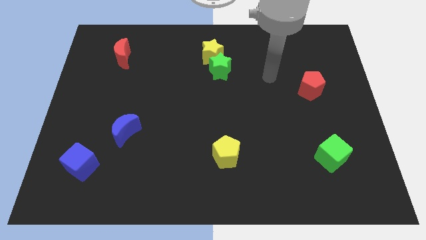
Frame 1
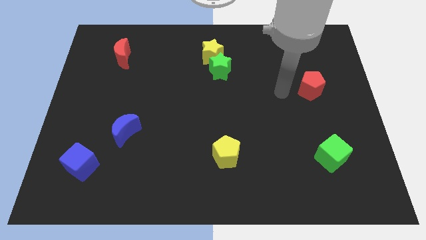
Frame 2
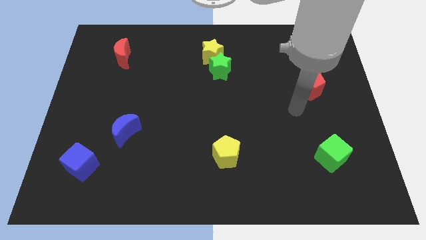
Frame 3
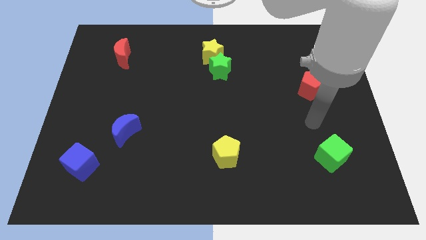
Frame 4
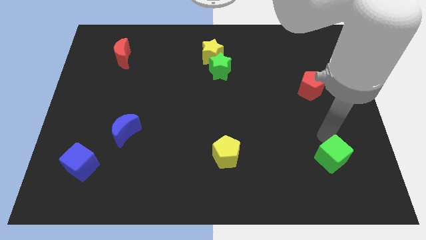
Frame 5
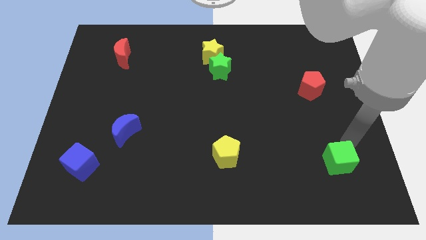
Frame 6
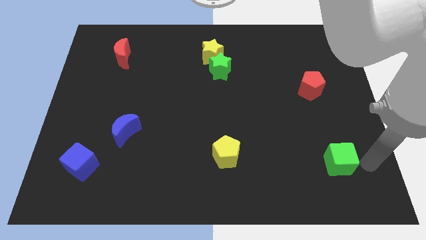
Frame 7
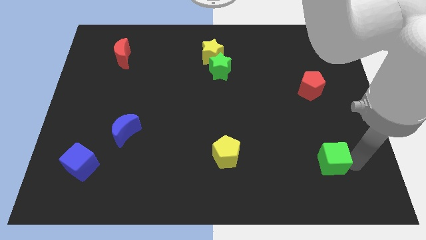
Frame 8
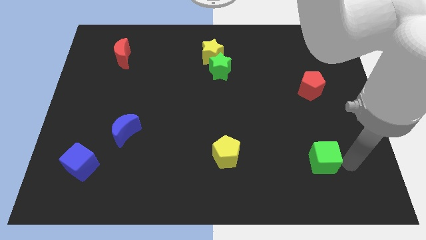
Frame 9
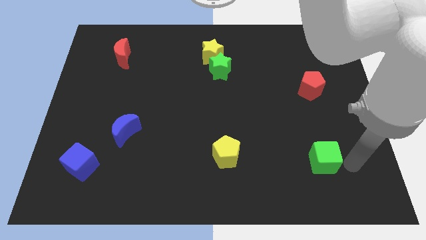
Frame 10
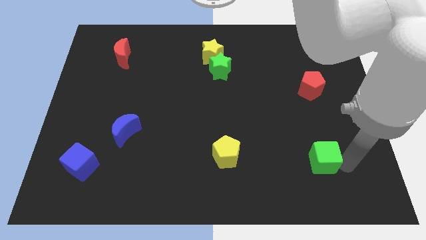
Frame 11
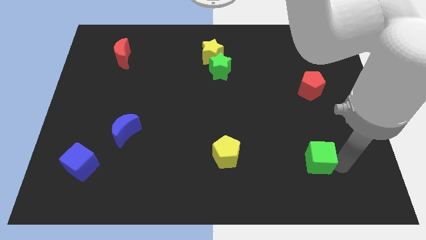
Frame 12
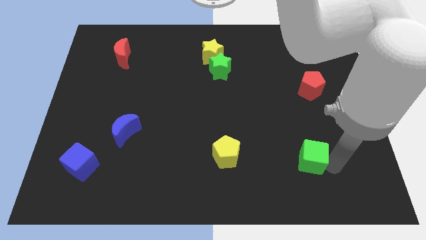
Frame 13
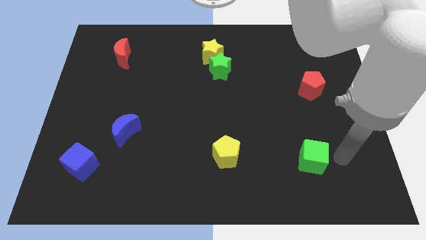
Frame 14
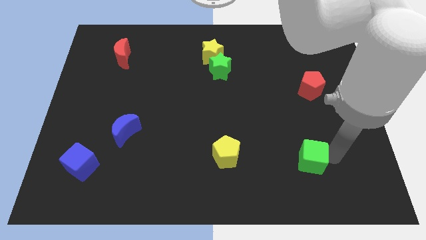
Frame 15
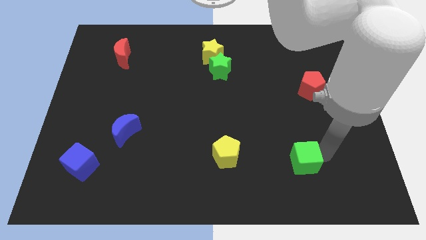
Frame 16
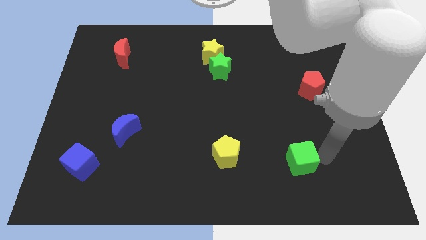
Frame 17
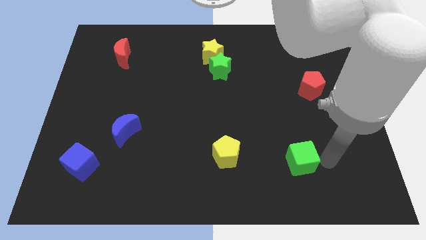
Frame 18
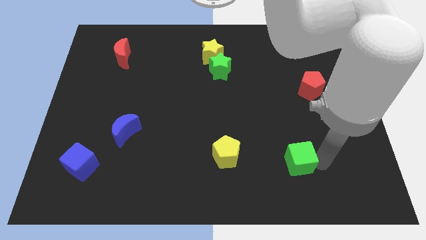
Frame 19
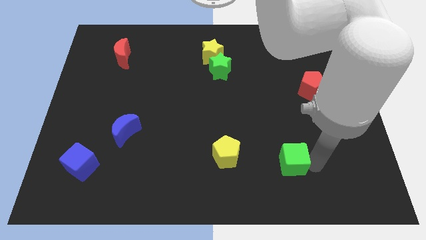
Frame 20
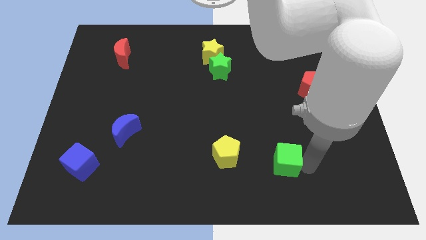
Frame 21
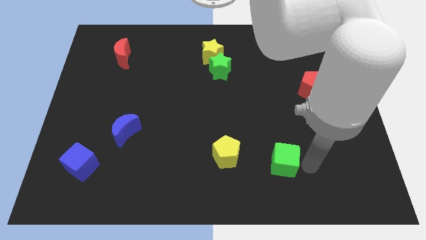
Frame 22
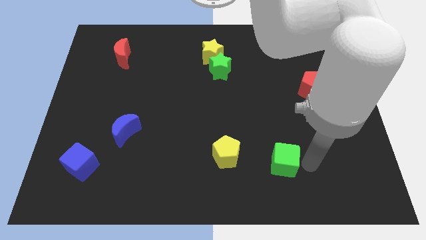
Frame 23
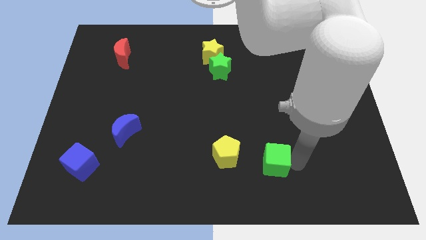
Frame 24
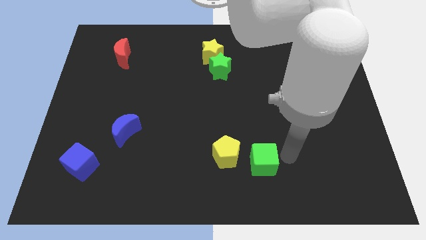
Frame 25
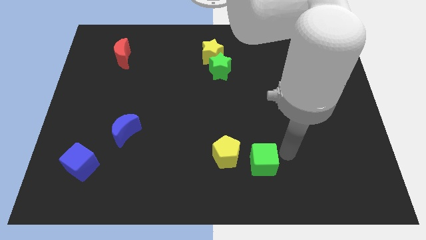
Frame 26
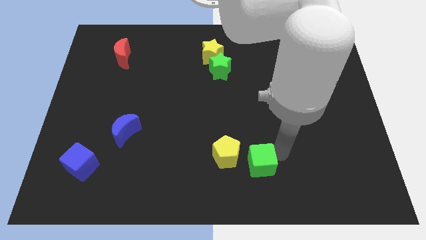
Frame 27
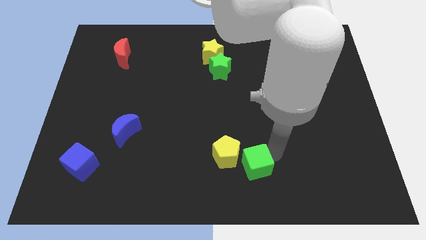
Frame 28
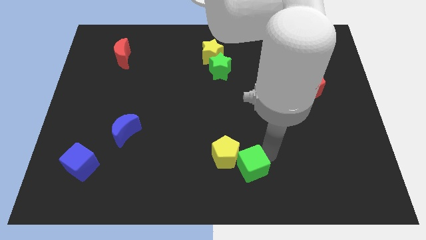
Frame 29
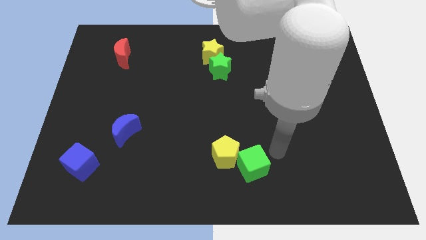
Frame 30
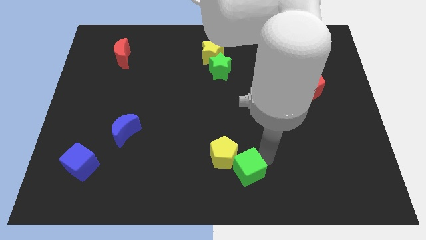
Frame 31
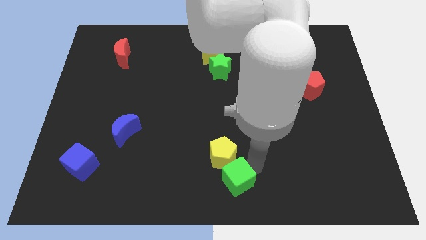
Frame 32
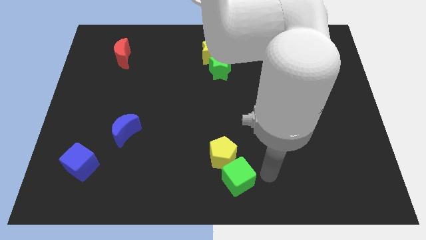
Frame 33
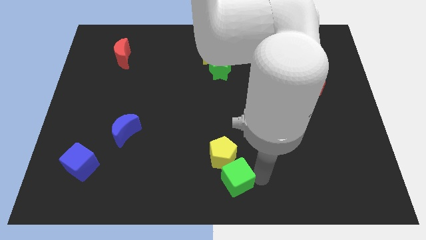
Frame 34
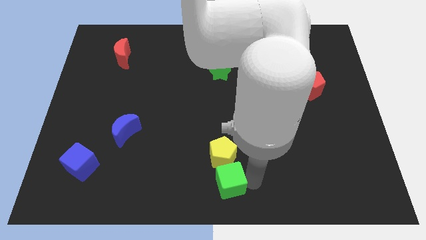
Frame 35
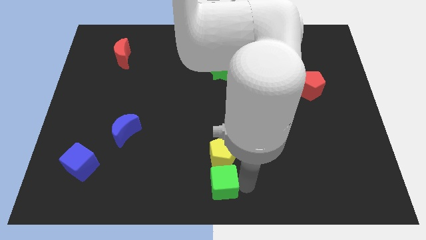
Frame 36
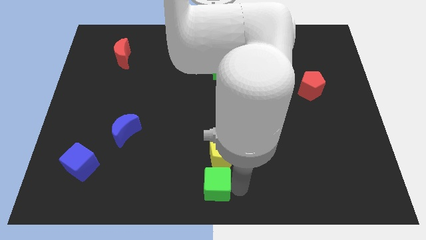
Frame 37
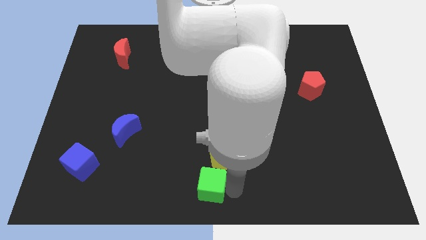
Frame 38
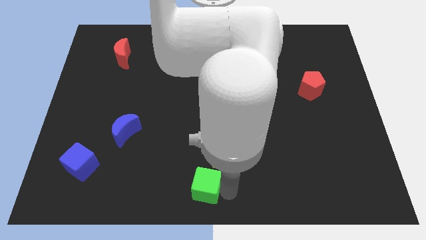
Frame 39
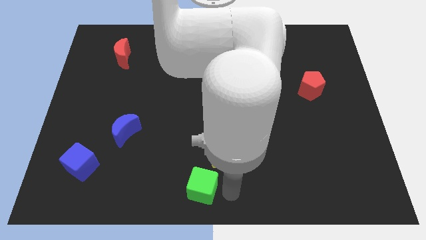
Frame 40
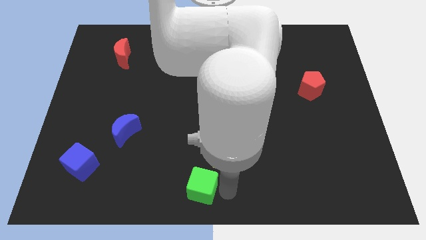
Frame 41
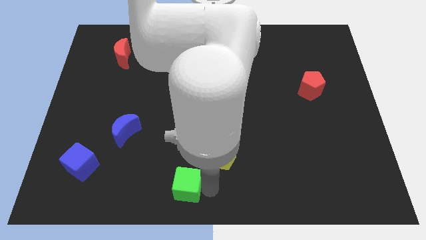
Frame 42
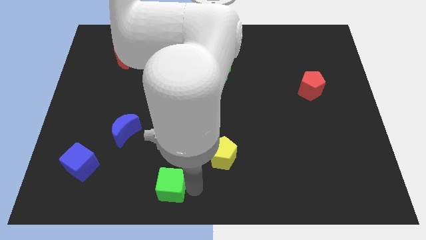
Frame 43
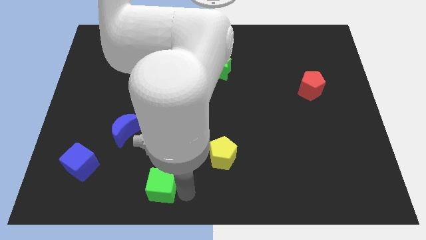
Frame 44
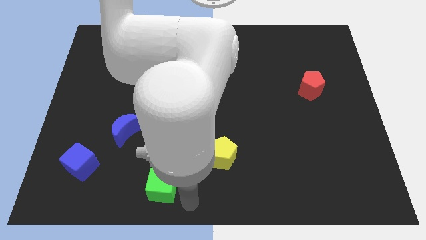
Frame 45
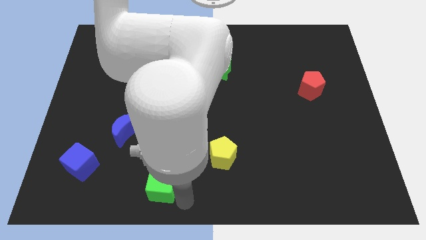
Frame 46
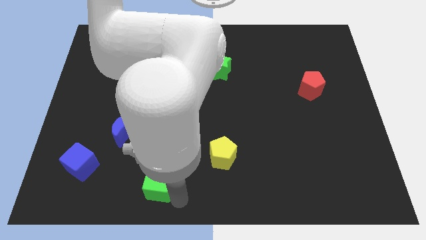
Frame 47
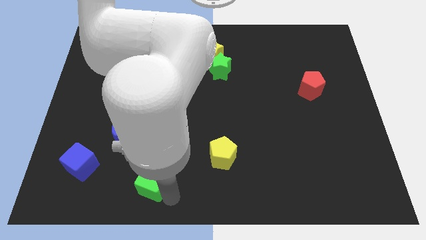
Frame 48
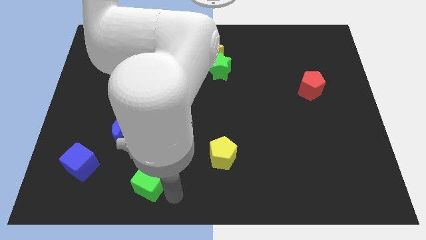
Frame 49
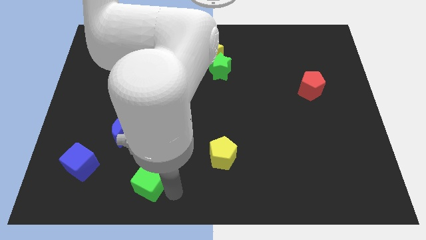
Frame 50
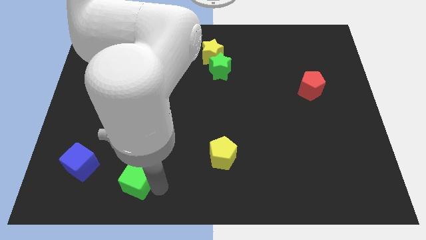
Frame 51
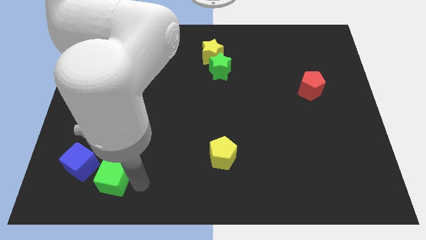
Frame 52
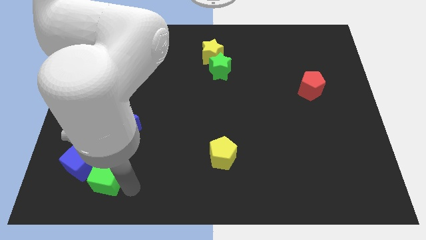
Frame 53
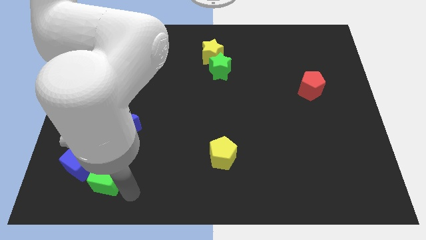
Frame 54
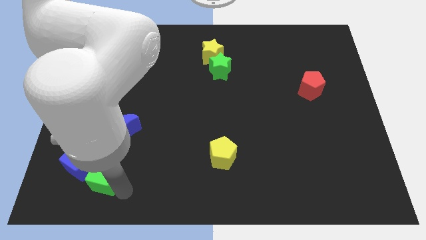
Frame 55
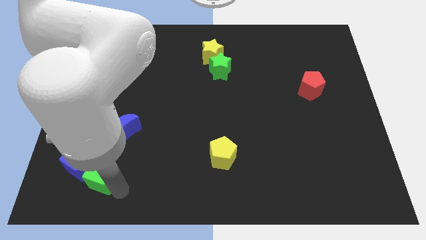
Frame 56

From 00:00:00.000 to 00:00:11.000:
slide the green cube towards the blue cube
